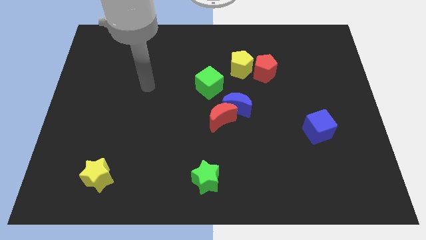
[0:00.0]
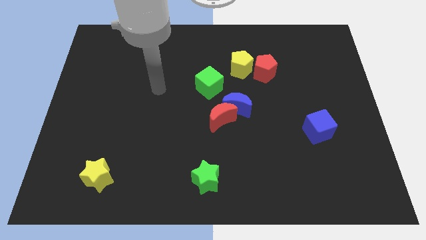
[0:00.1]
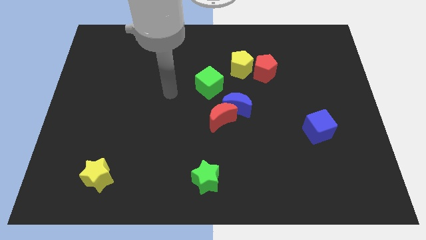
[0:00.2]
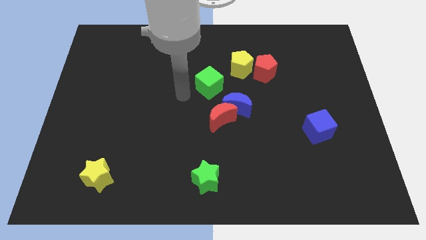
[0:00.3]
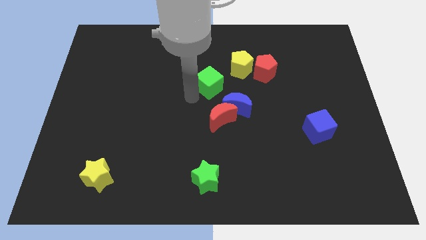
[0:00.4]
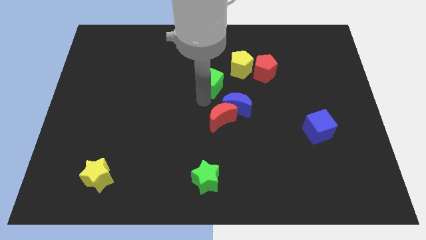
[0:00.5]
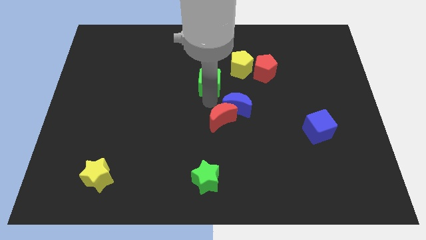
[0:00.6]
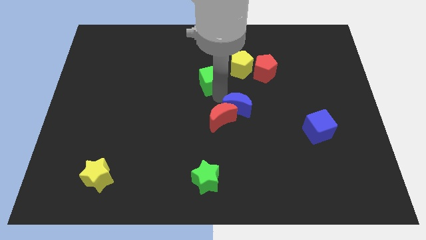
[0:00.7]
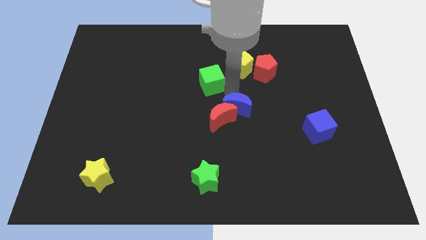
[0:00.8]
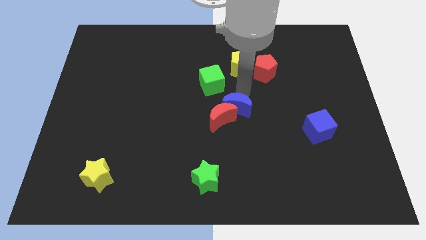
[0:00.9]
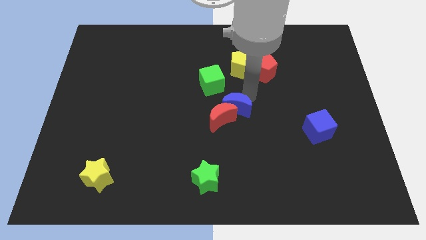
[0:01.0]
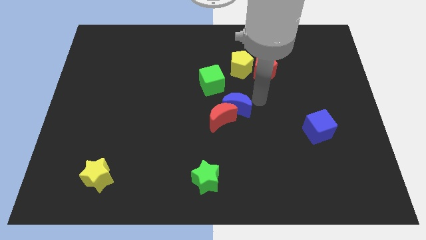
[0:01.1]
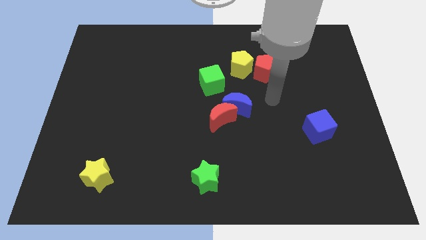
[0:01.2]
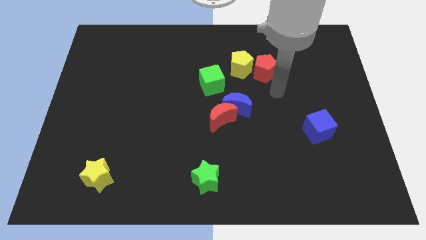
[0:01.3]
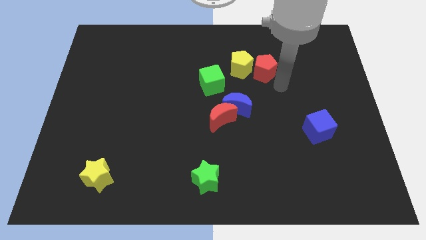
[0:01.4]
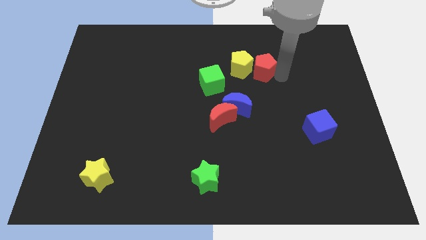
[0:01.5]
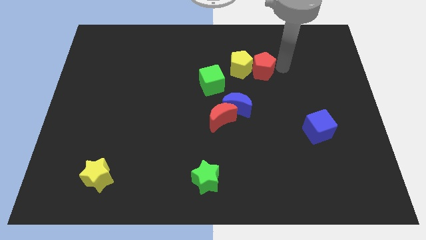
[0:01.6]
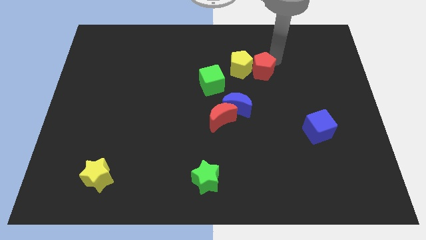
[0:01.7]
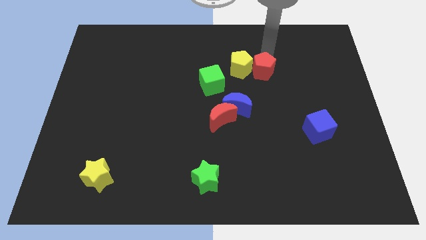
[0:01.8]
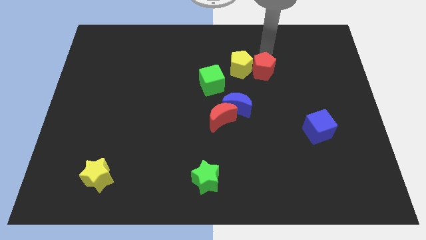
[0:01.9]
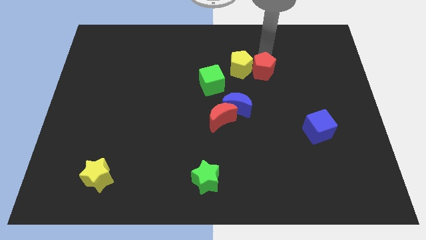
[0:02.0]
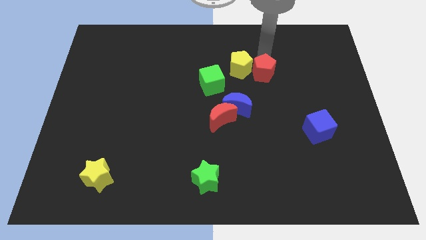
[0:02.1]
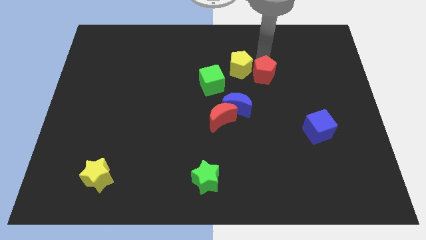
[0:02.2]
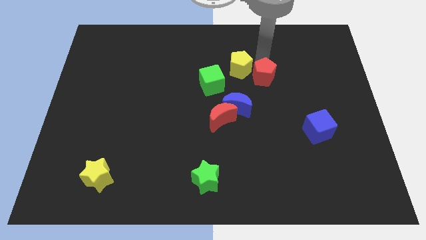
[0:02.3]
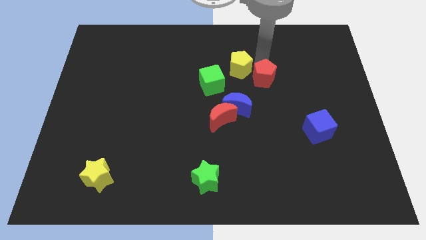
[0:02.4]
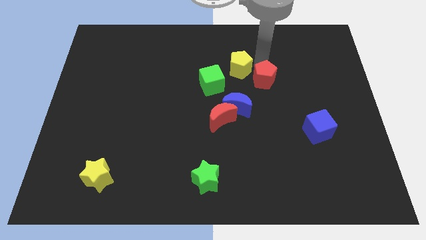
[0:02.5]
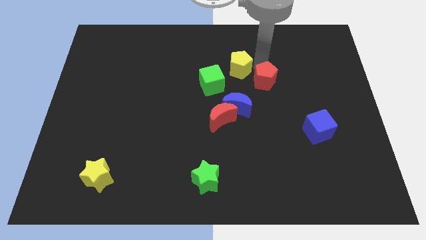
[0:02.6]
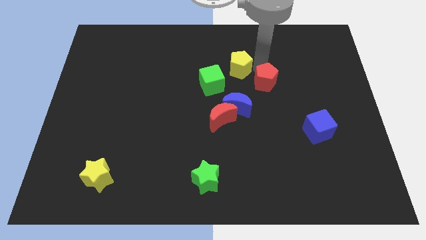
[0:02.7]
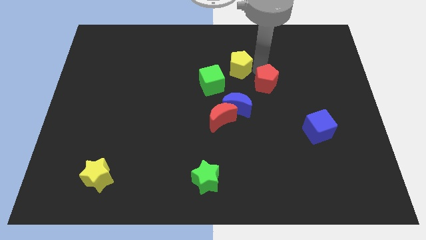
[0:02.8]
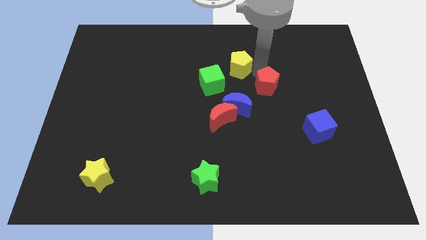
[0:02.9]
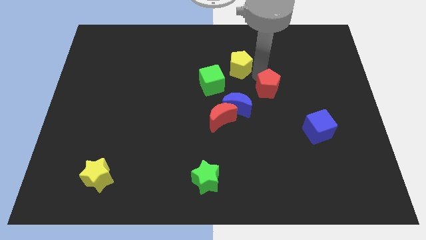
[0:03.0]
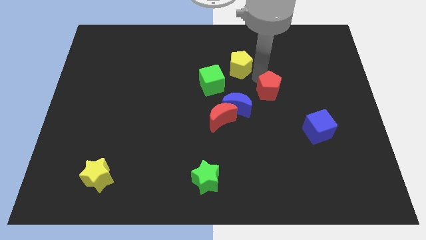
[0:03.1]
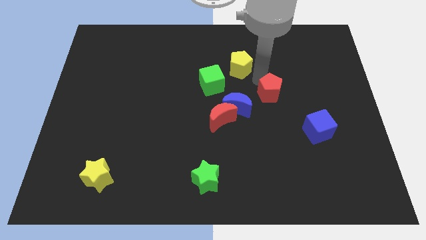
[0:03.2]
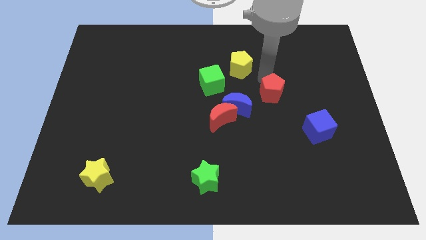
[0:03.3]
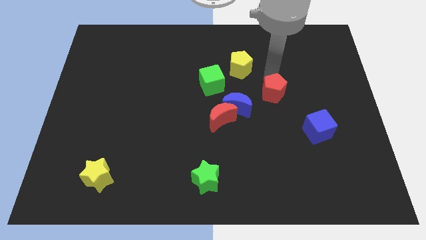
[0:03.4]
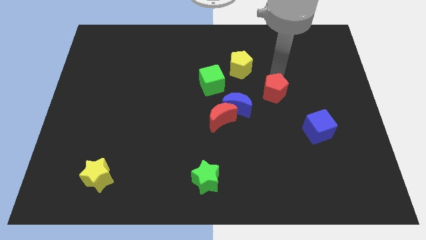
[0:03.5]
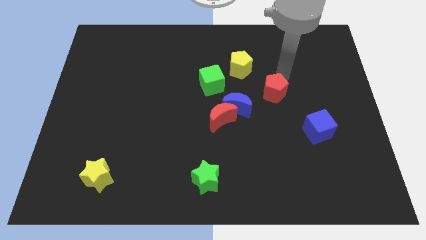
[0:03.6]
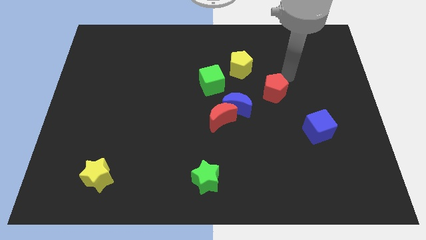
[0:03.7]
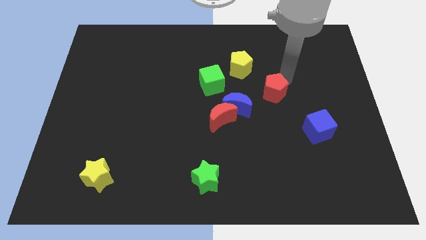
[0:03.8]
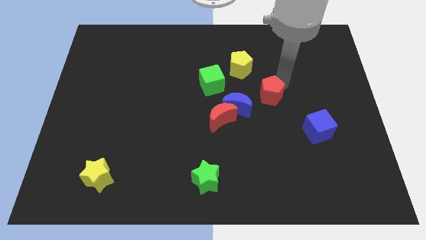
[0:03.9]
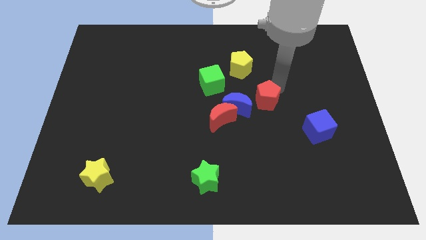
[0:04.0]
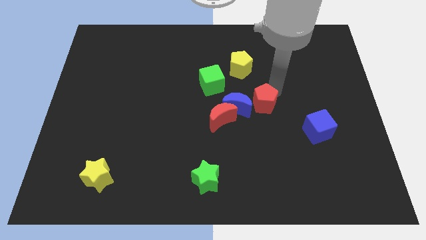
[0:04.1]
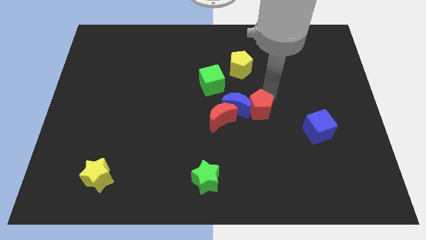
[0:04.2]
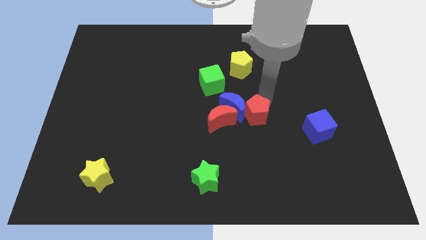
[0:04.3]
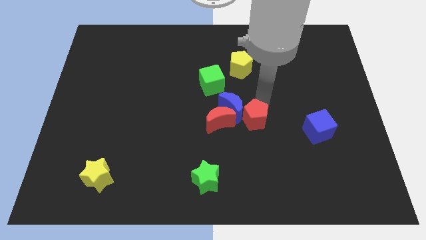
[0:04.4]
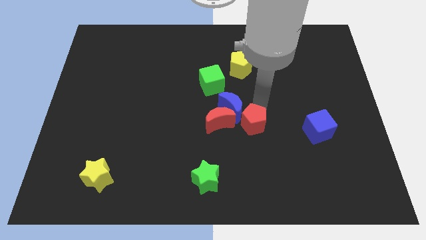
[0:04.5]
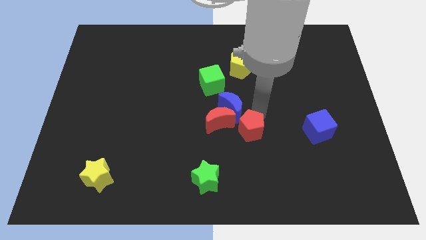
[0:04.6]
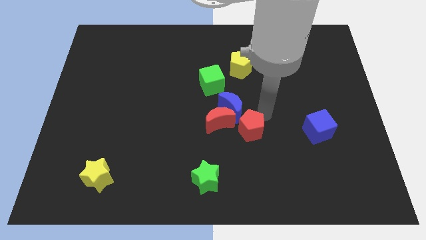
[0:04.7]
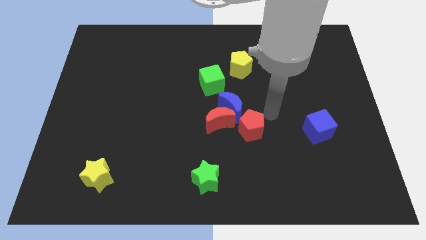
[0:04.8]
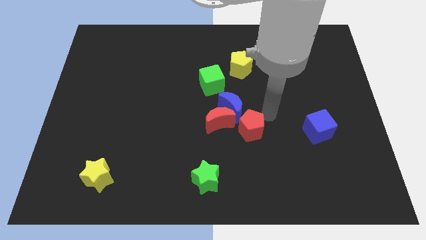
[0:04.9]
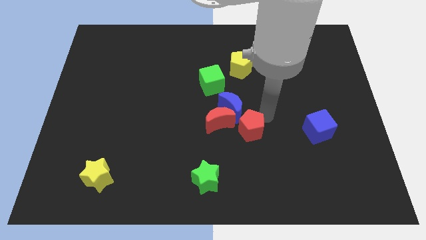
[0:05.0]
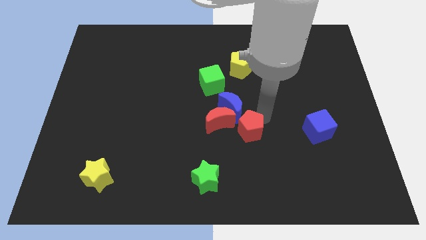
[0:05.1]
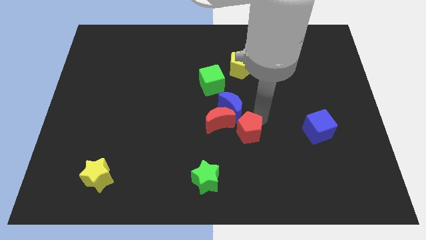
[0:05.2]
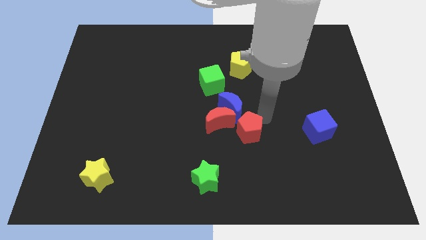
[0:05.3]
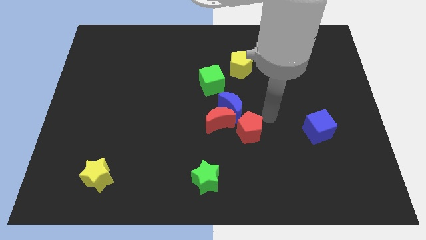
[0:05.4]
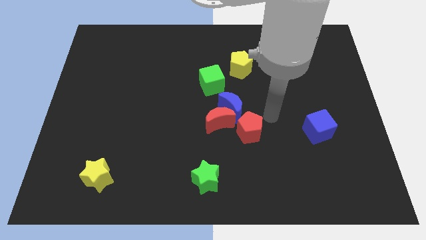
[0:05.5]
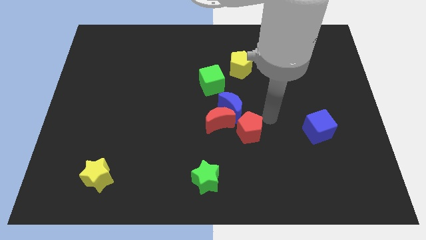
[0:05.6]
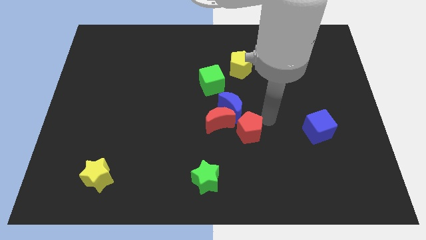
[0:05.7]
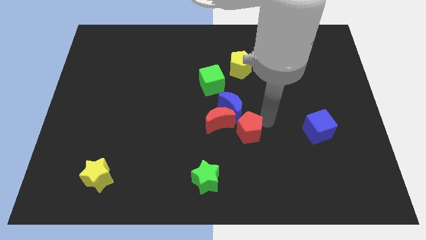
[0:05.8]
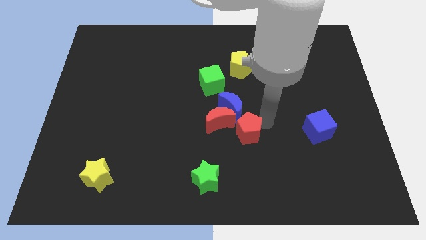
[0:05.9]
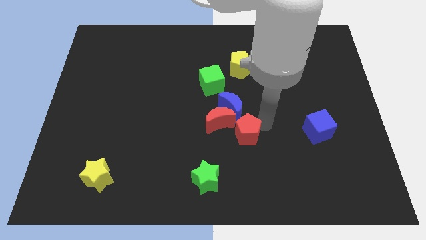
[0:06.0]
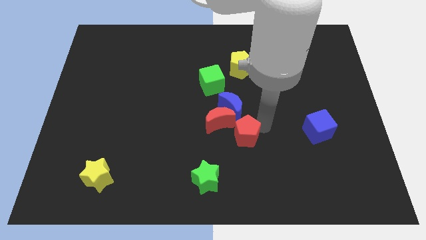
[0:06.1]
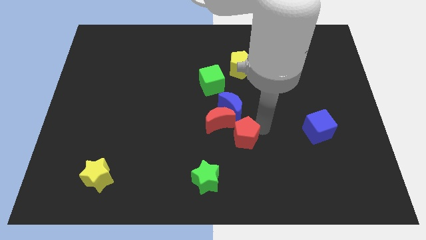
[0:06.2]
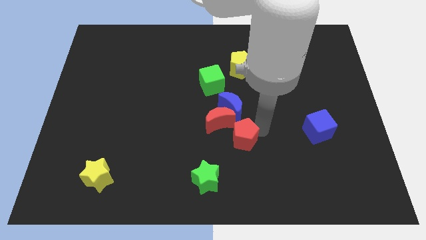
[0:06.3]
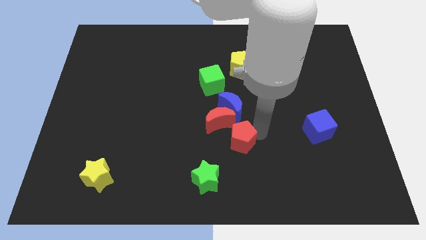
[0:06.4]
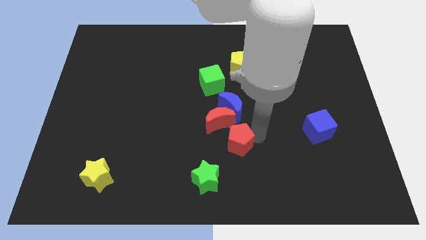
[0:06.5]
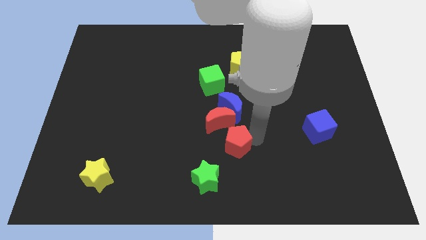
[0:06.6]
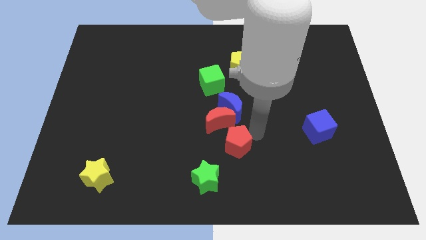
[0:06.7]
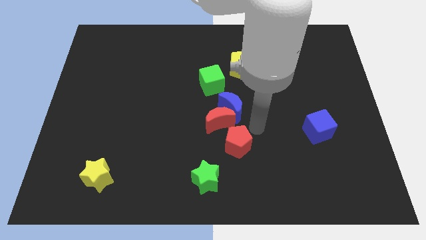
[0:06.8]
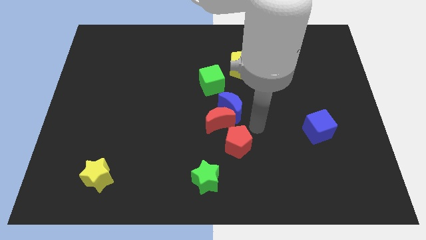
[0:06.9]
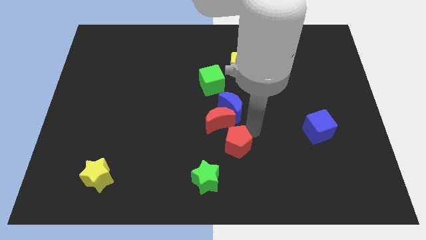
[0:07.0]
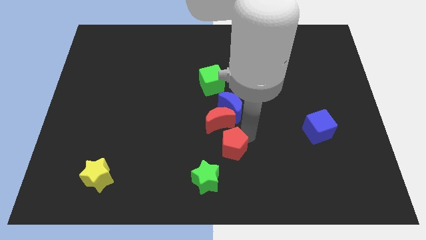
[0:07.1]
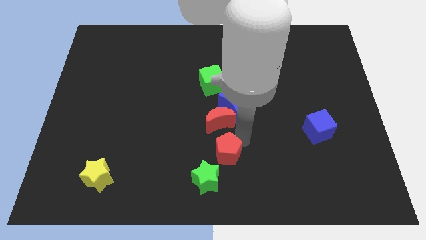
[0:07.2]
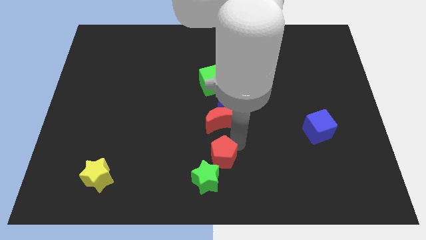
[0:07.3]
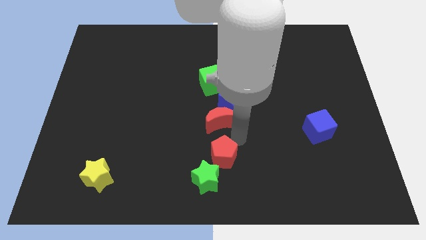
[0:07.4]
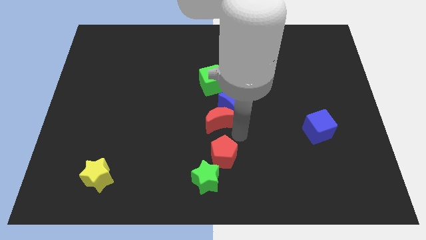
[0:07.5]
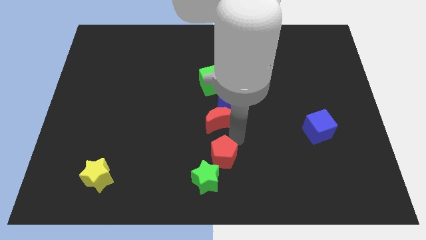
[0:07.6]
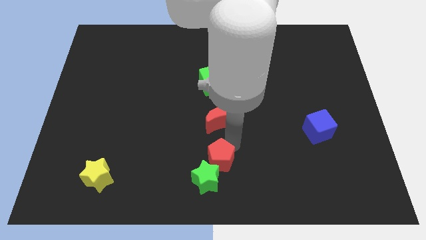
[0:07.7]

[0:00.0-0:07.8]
move the red pentagon close to the green star
